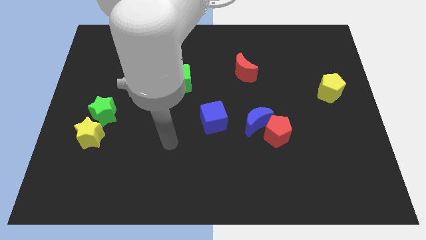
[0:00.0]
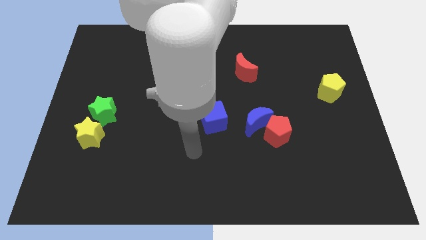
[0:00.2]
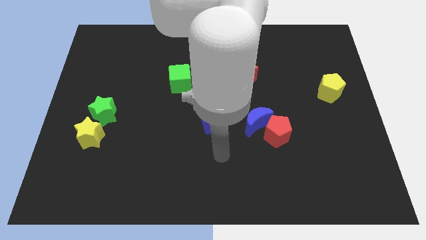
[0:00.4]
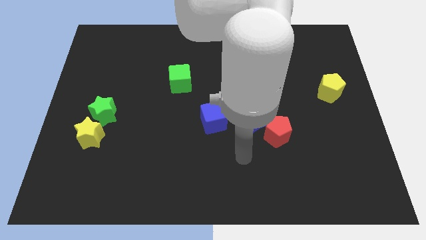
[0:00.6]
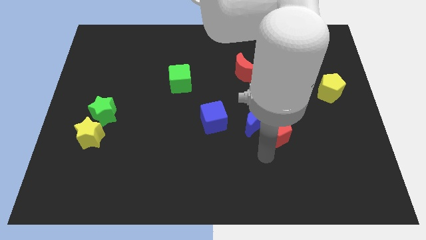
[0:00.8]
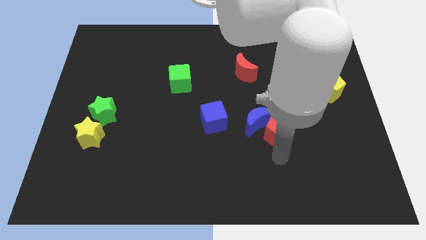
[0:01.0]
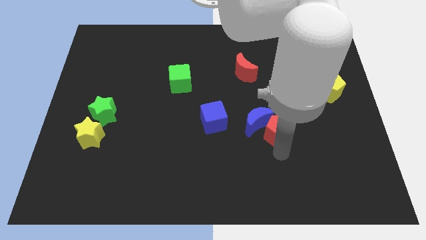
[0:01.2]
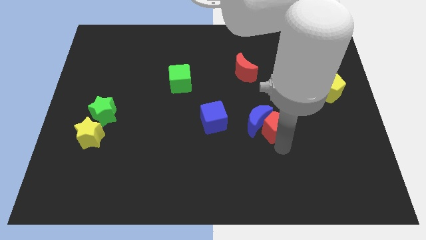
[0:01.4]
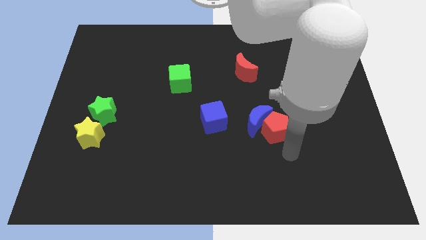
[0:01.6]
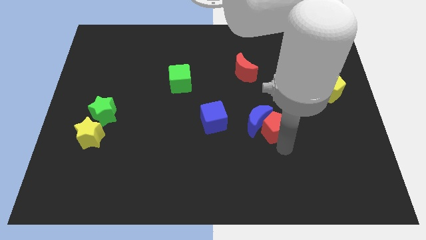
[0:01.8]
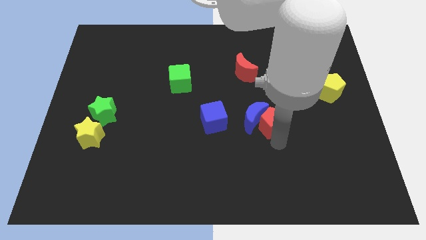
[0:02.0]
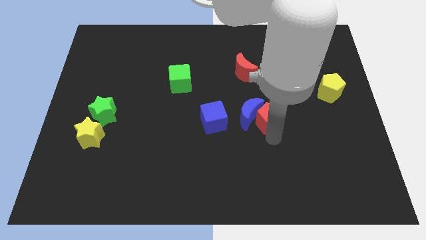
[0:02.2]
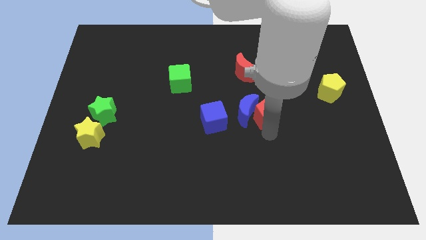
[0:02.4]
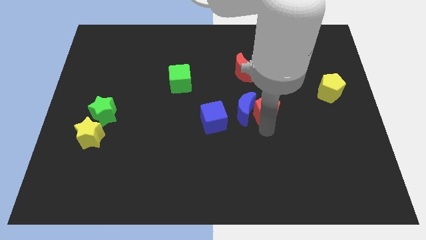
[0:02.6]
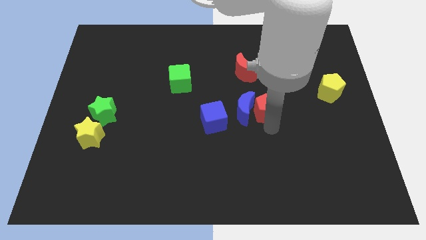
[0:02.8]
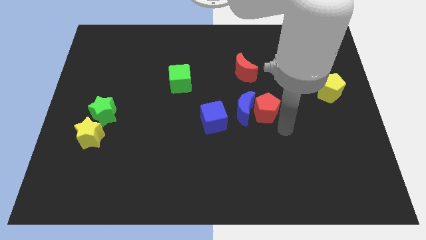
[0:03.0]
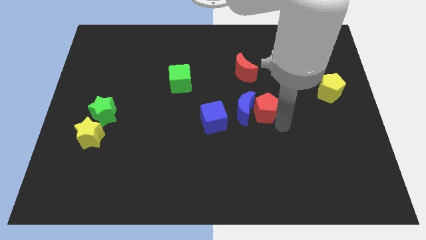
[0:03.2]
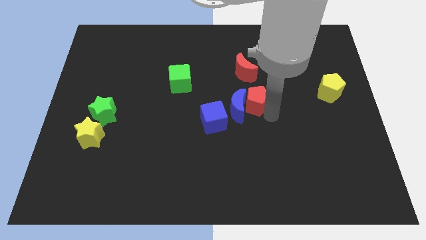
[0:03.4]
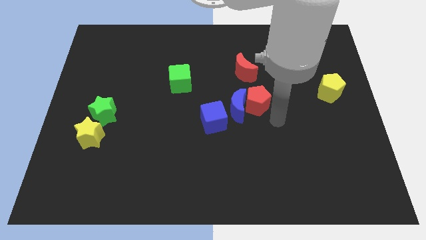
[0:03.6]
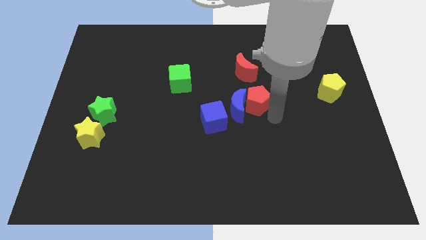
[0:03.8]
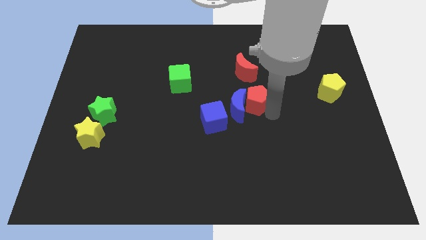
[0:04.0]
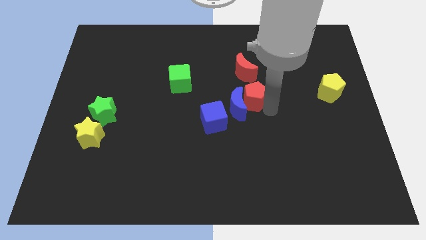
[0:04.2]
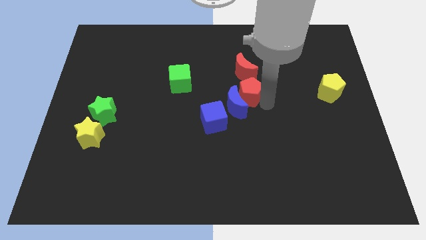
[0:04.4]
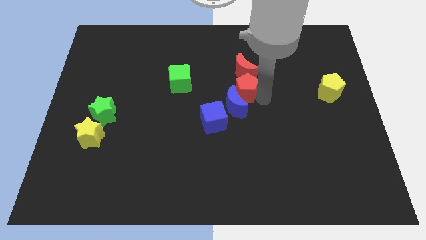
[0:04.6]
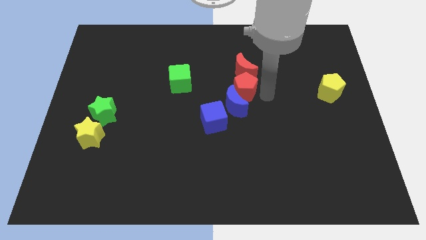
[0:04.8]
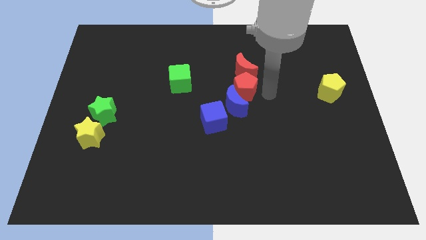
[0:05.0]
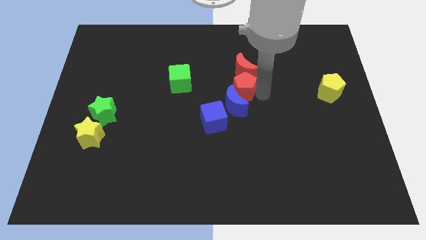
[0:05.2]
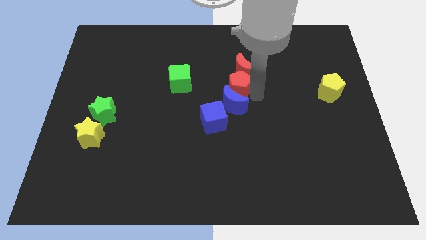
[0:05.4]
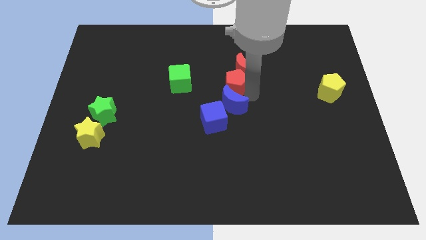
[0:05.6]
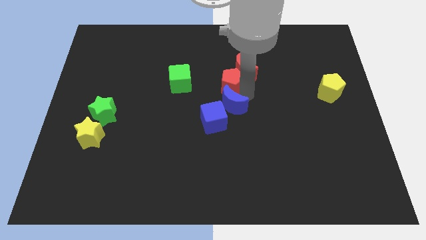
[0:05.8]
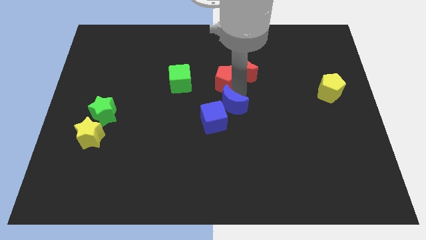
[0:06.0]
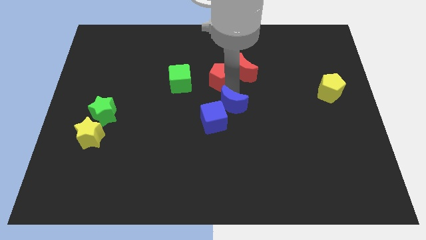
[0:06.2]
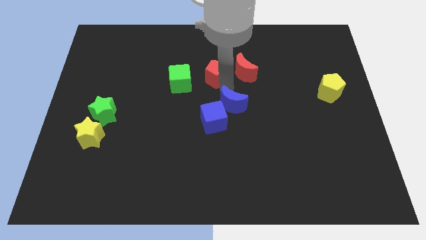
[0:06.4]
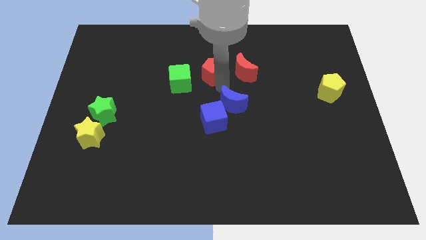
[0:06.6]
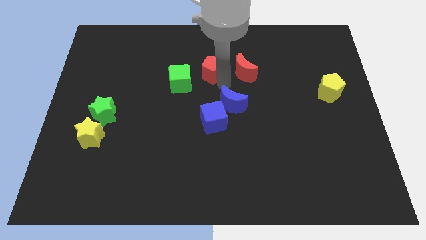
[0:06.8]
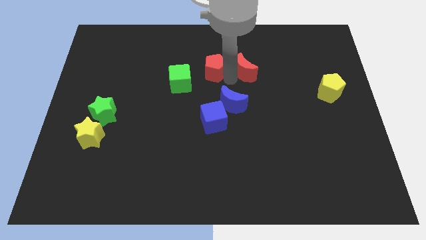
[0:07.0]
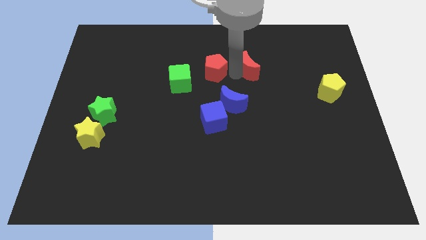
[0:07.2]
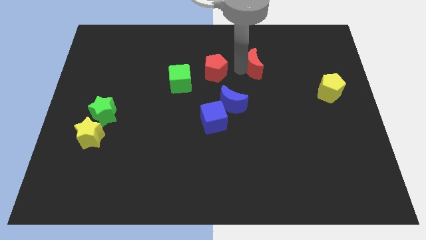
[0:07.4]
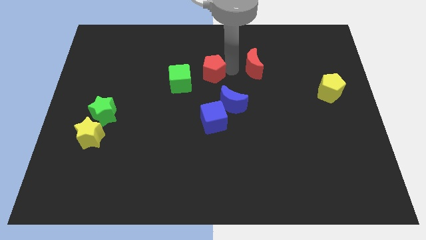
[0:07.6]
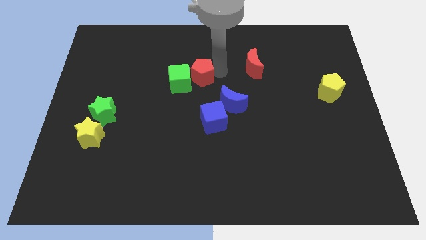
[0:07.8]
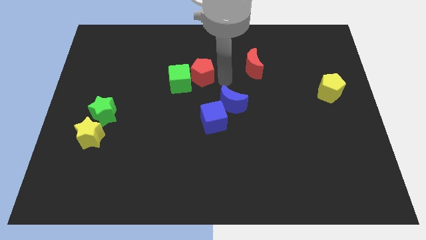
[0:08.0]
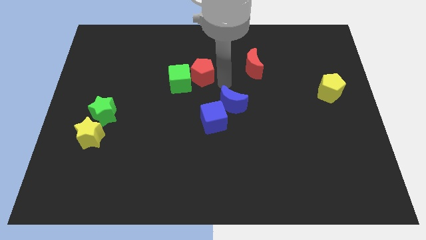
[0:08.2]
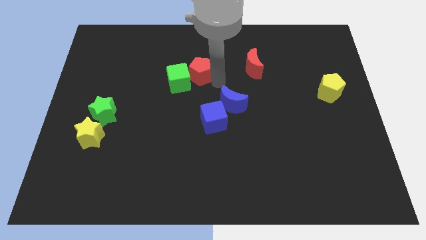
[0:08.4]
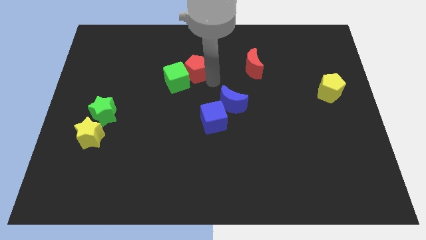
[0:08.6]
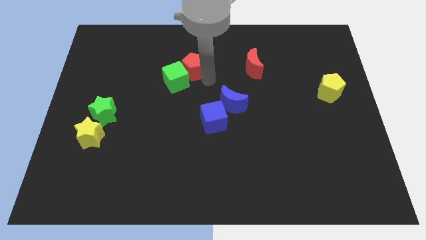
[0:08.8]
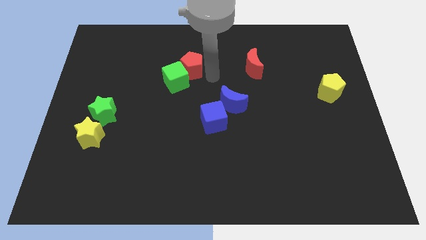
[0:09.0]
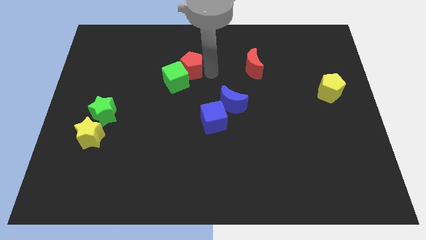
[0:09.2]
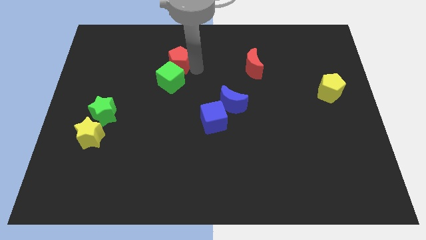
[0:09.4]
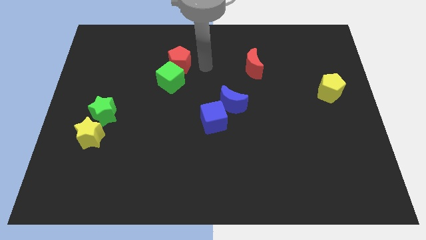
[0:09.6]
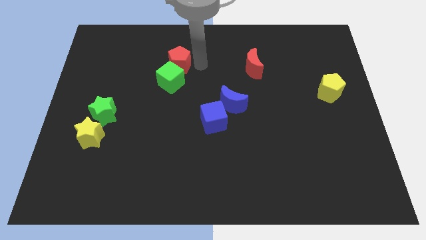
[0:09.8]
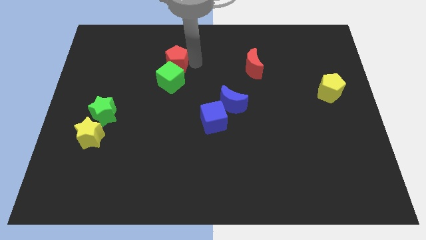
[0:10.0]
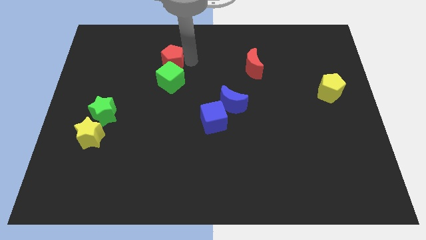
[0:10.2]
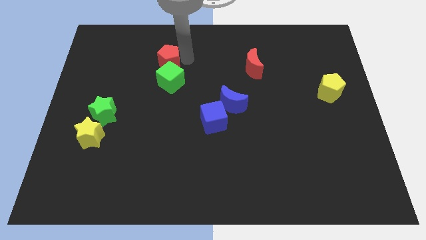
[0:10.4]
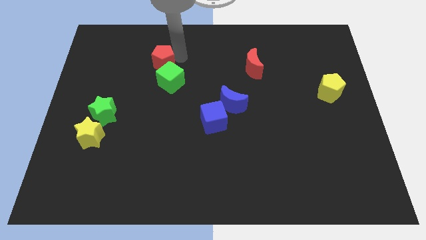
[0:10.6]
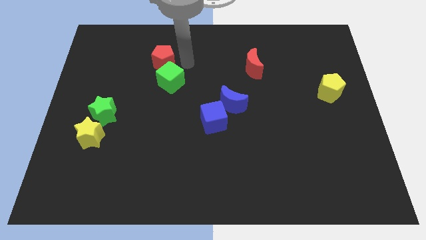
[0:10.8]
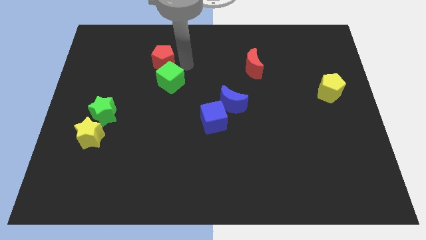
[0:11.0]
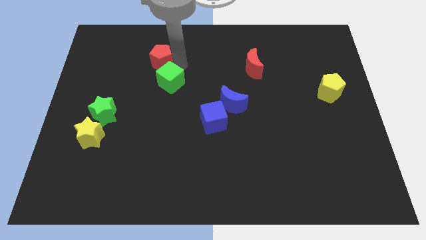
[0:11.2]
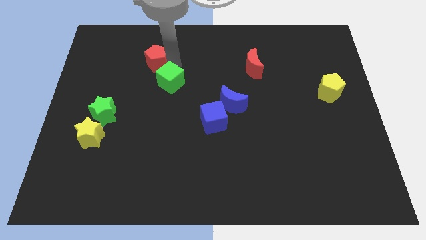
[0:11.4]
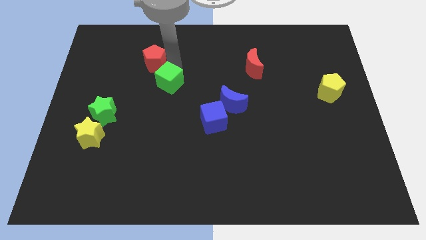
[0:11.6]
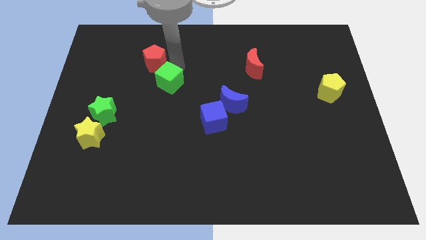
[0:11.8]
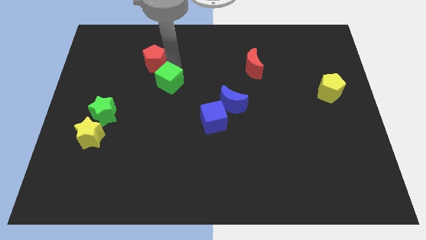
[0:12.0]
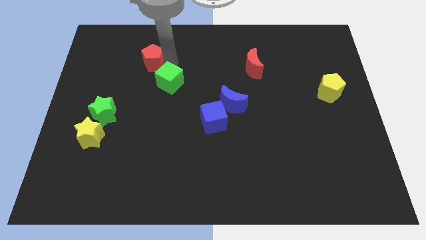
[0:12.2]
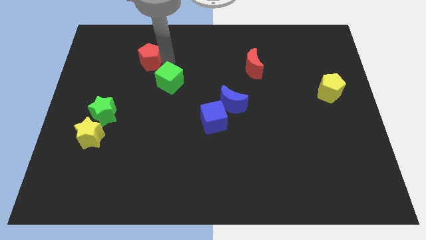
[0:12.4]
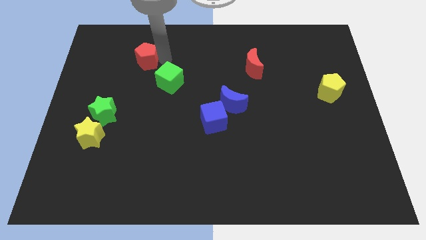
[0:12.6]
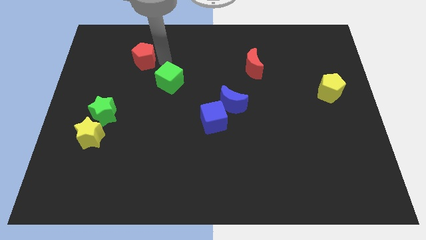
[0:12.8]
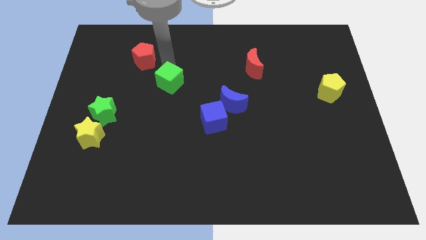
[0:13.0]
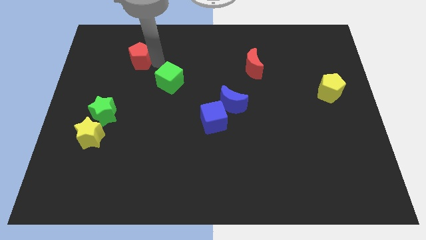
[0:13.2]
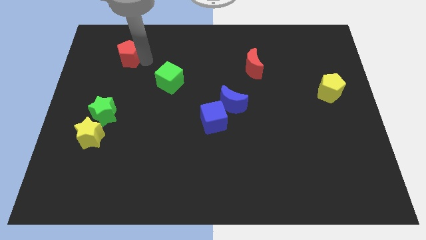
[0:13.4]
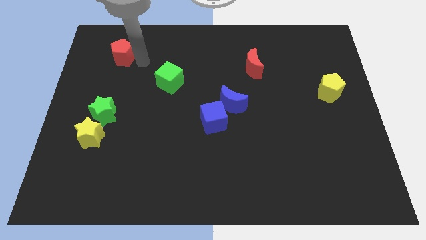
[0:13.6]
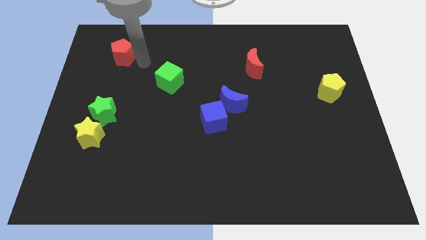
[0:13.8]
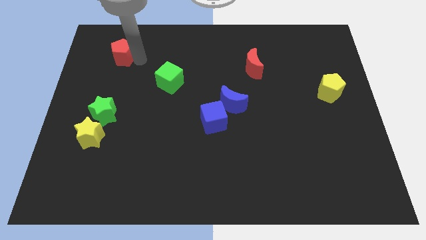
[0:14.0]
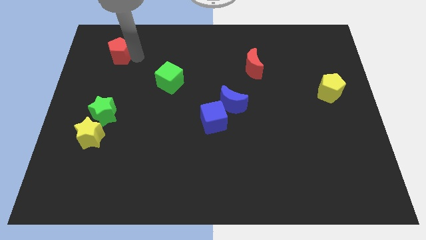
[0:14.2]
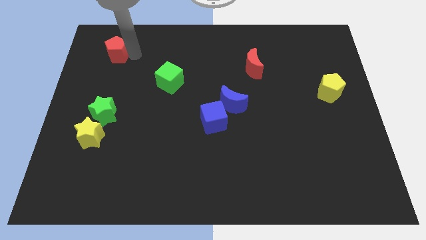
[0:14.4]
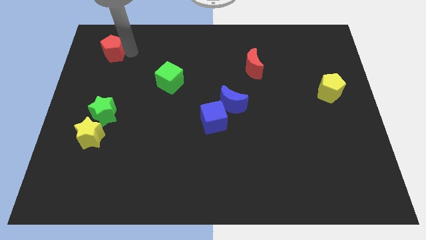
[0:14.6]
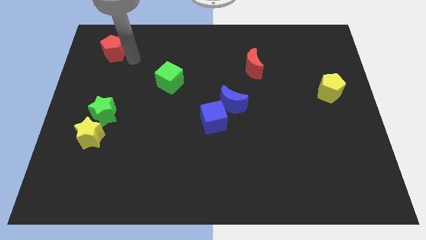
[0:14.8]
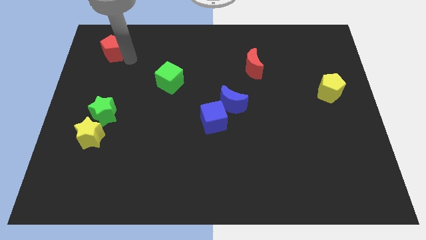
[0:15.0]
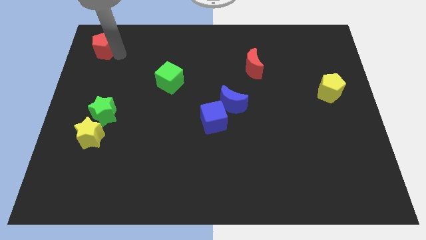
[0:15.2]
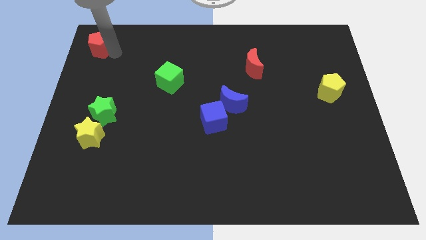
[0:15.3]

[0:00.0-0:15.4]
move the red pentagon to the upper left corner
